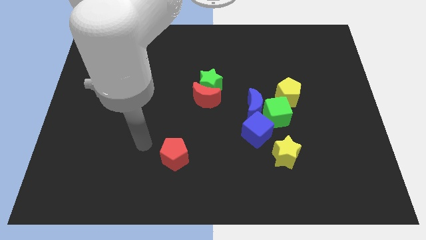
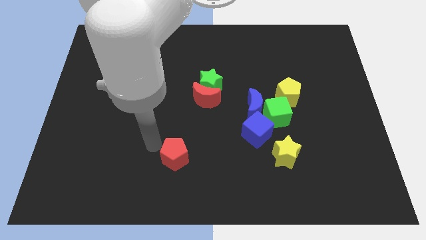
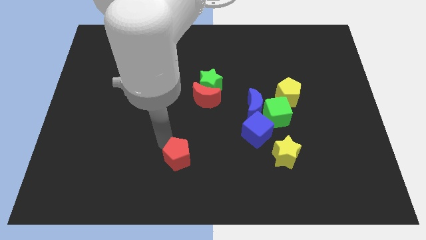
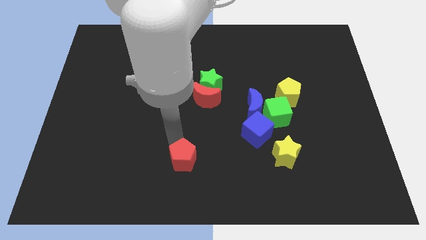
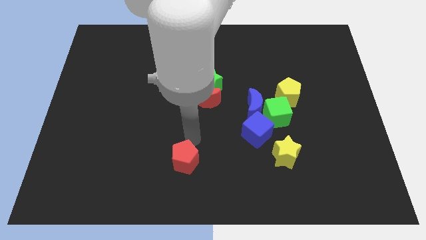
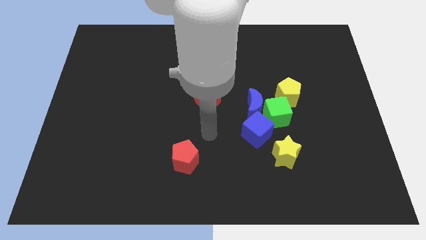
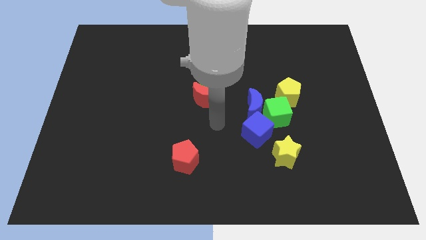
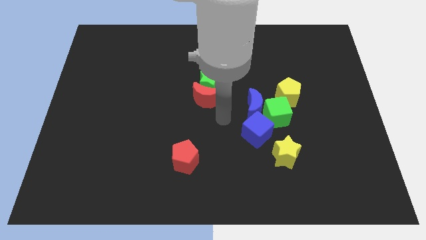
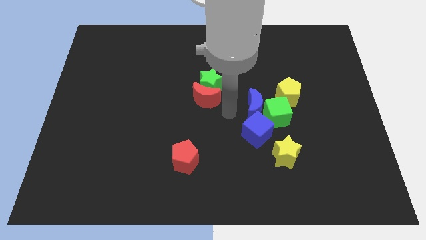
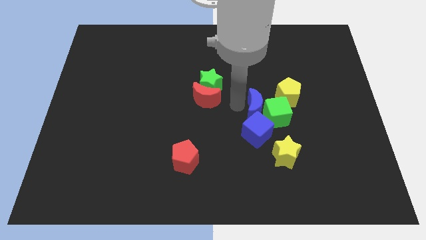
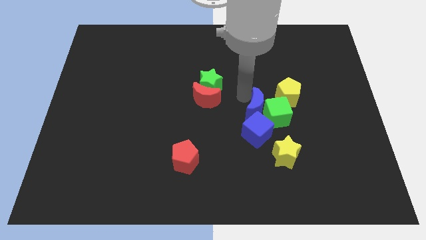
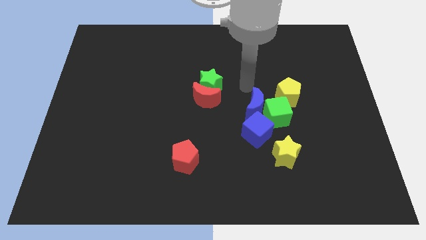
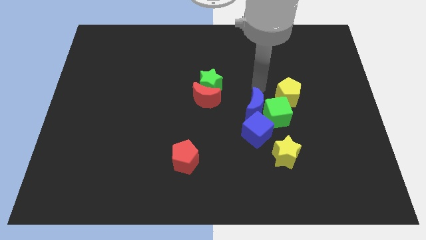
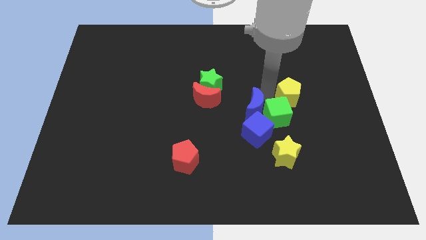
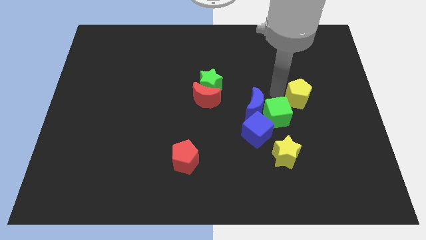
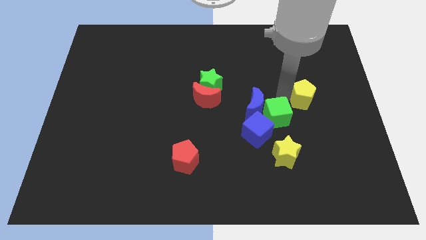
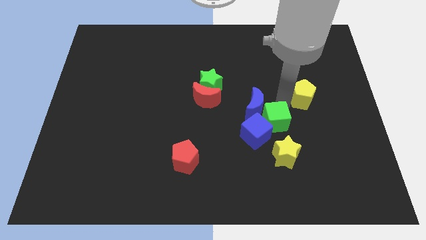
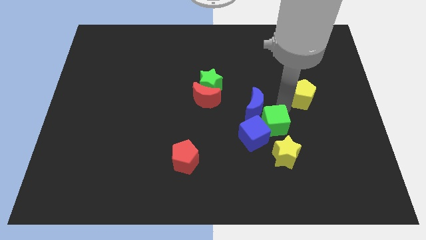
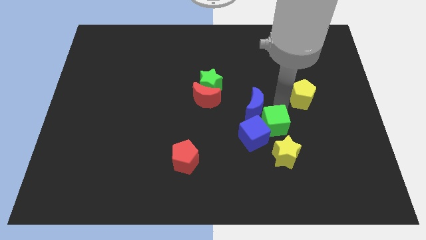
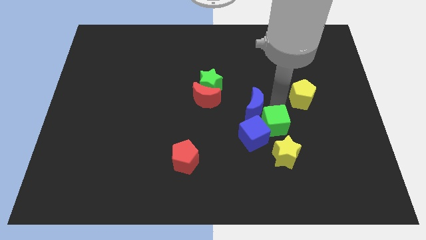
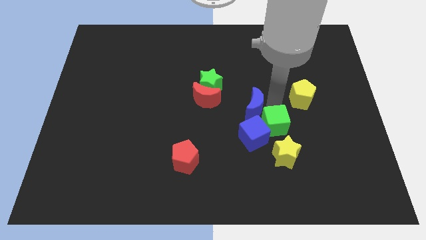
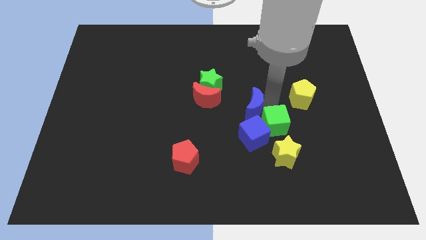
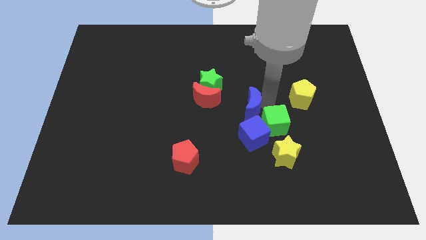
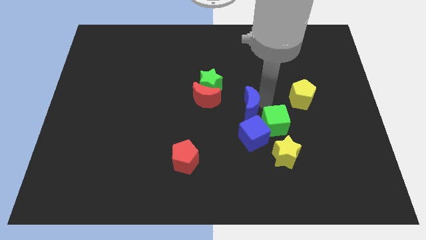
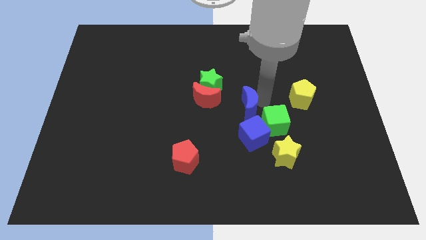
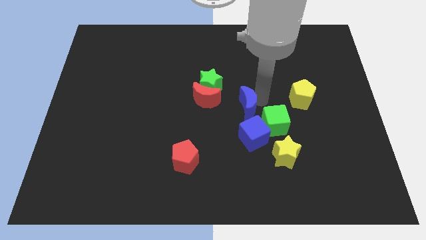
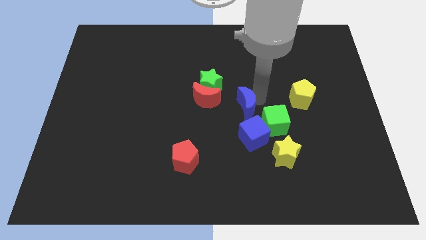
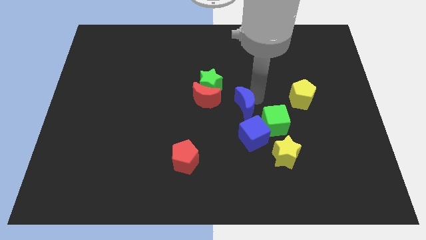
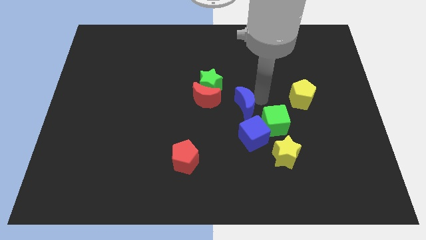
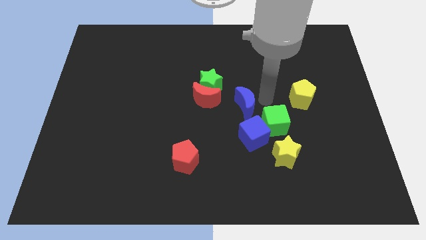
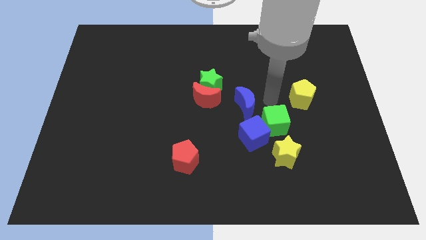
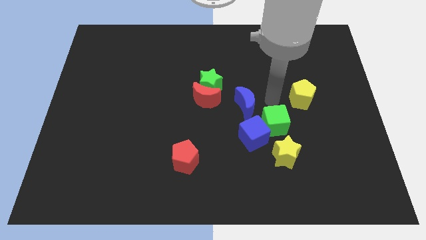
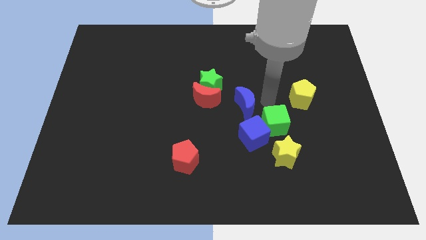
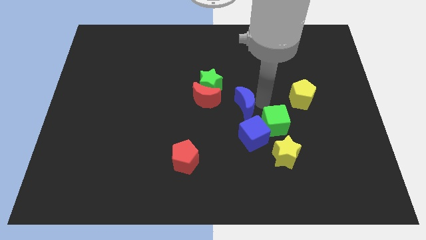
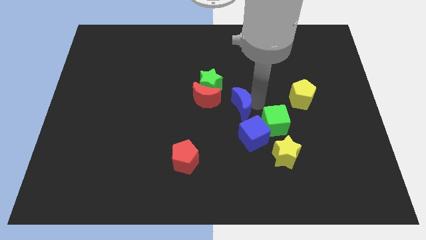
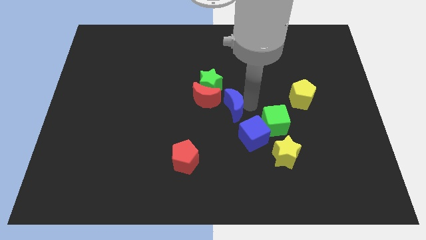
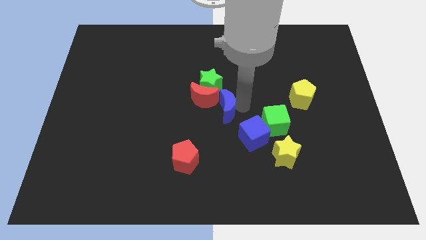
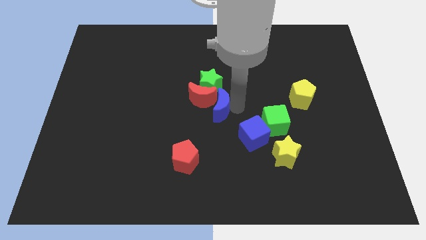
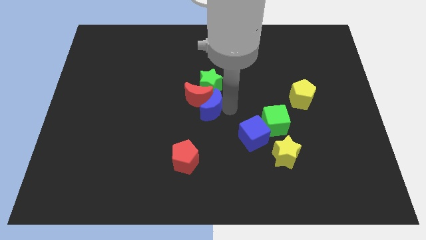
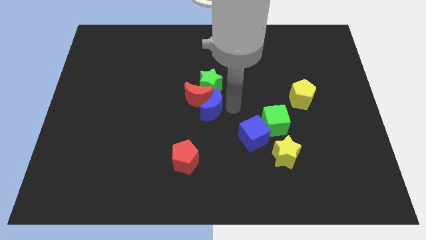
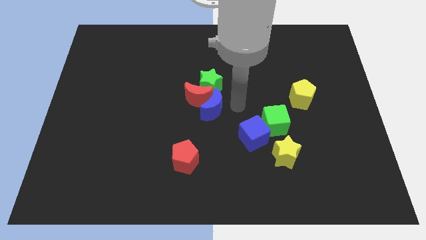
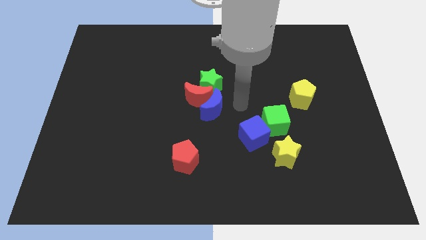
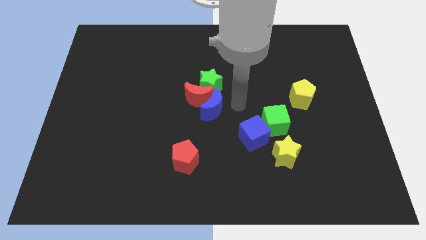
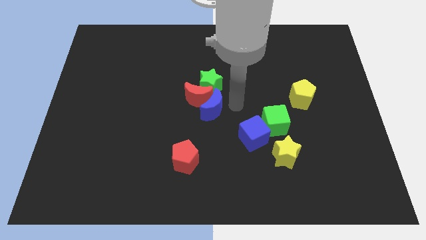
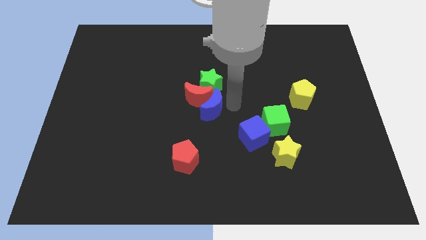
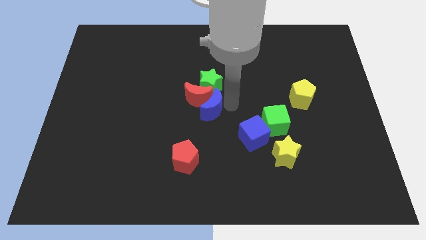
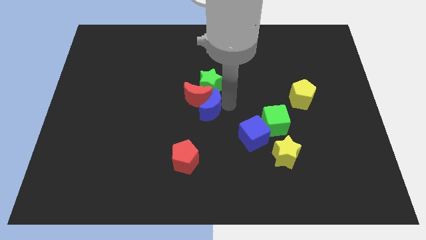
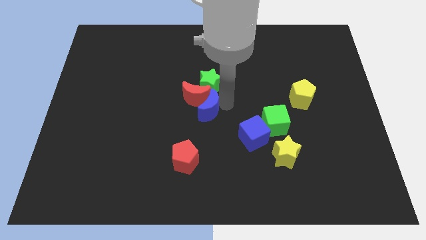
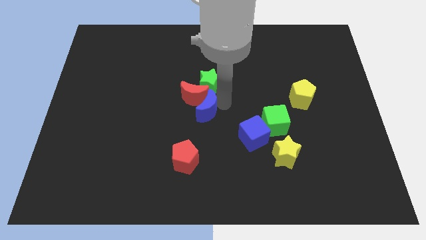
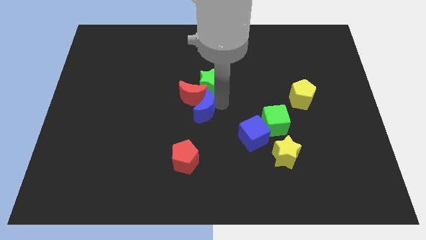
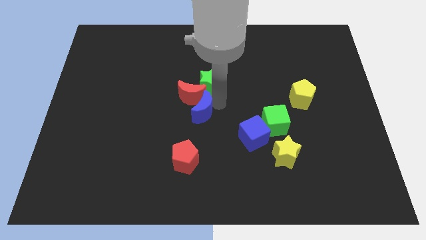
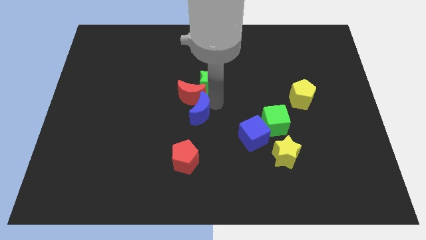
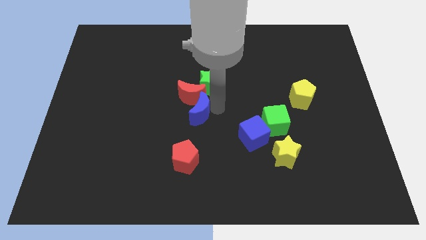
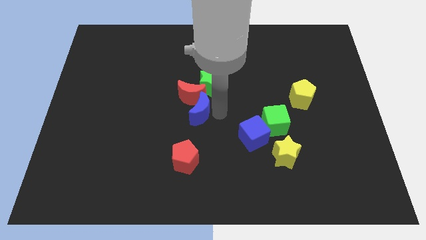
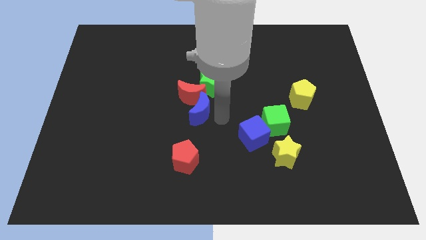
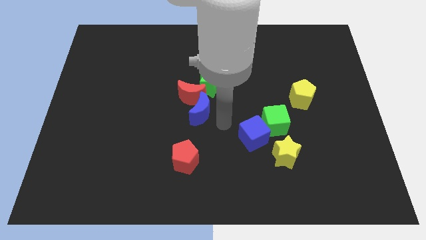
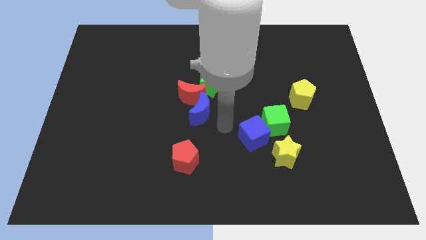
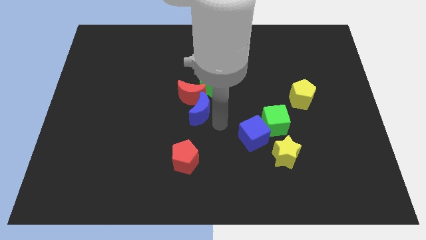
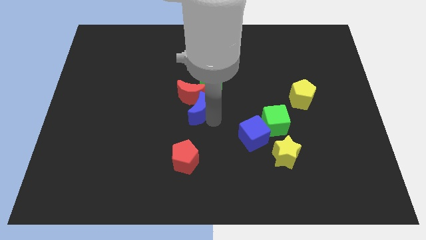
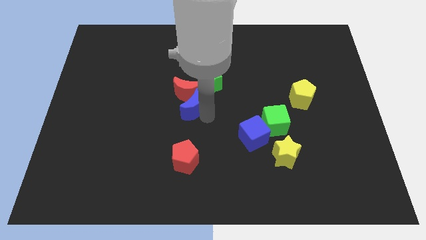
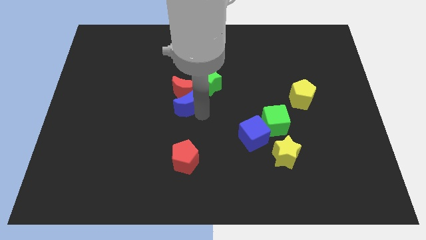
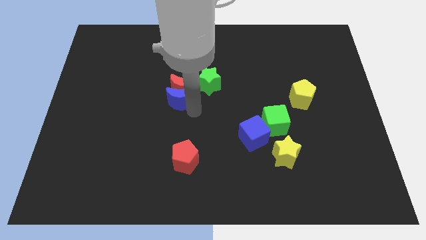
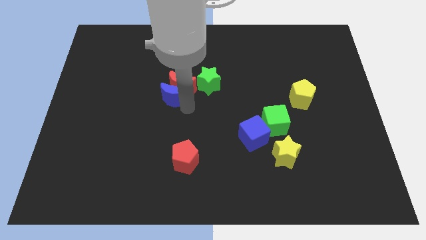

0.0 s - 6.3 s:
push the blue moon to the left side of the green star

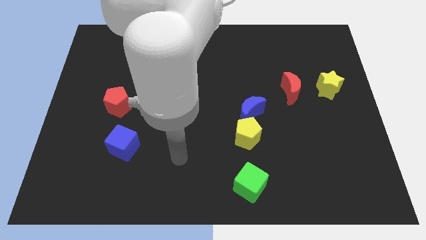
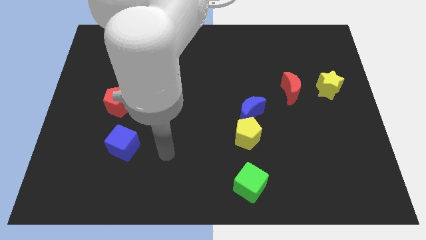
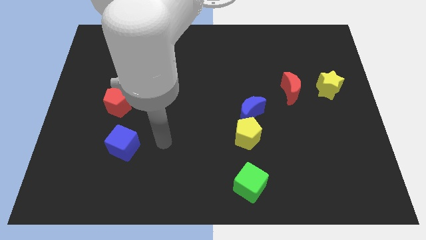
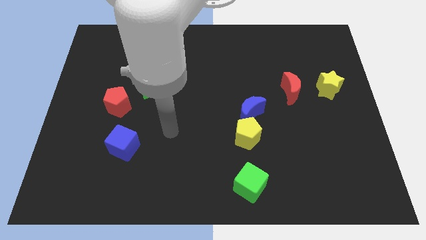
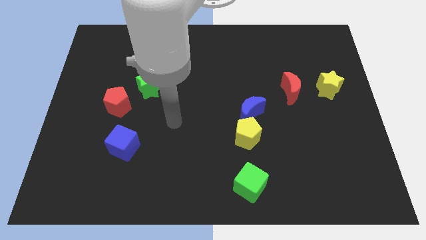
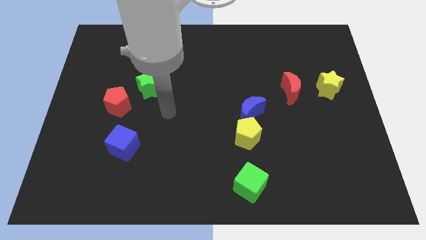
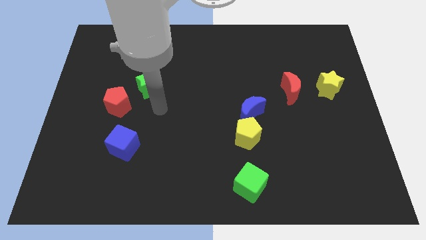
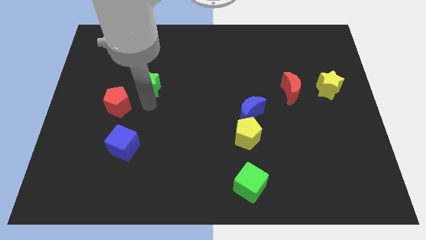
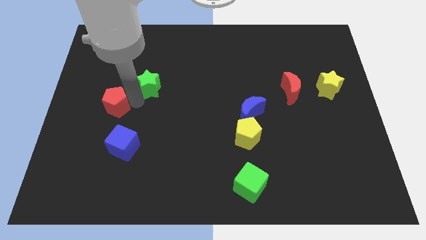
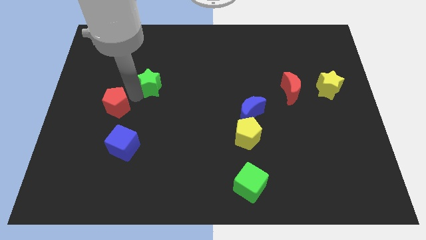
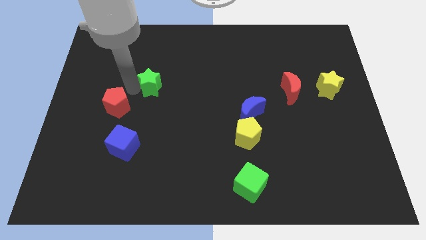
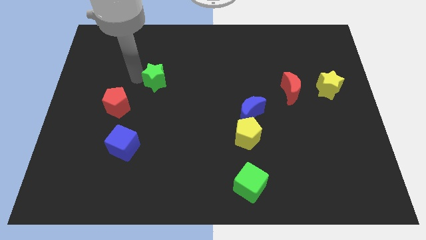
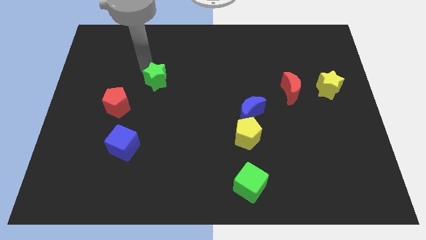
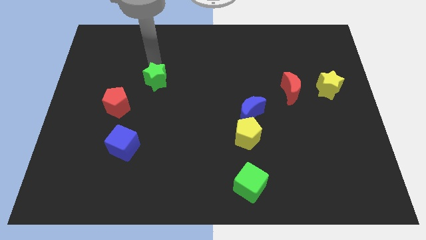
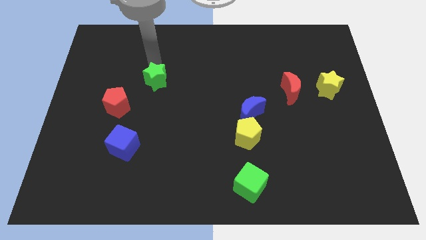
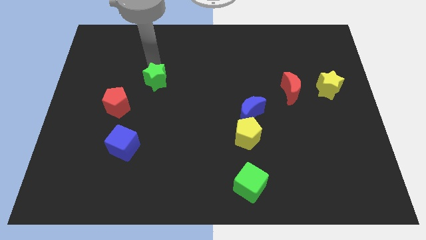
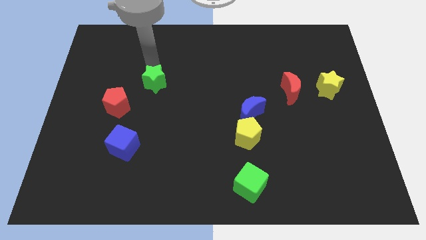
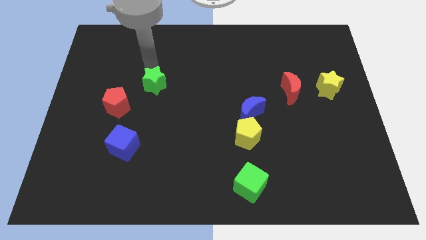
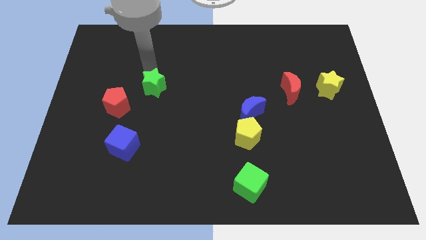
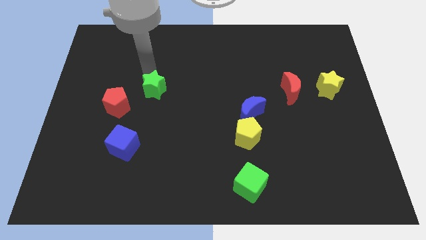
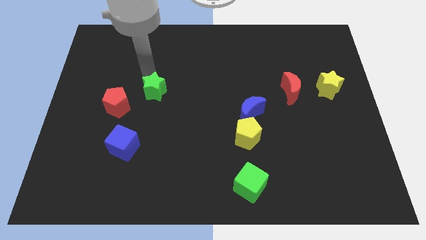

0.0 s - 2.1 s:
put the green star just right of the red pentagon
